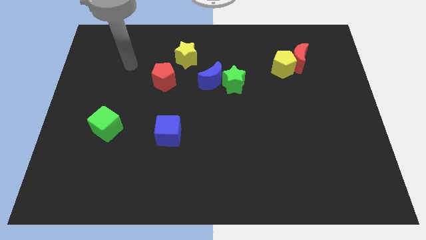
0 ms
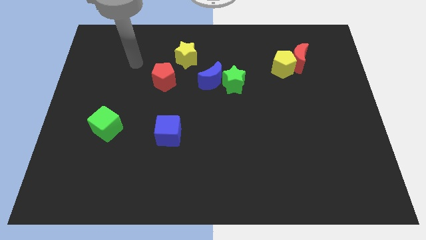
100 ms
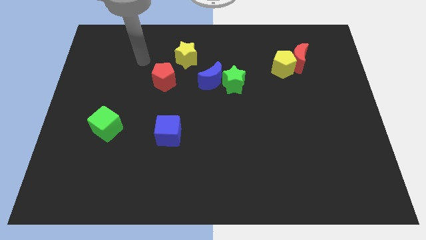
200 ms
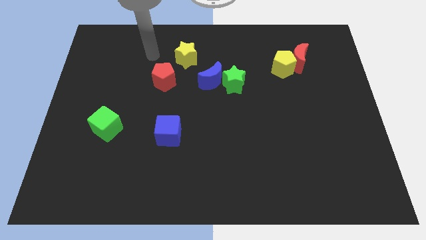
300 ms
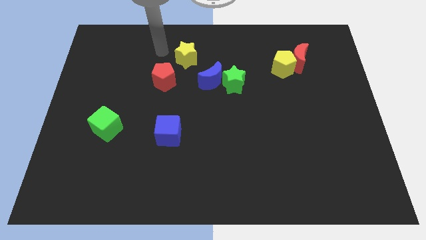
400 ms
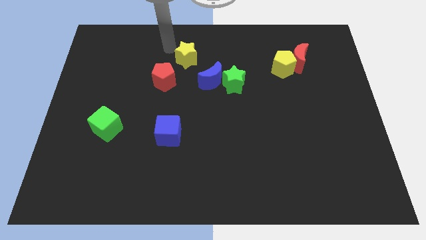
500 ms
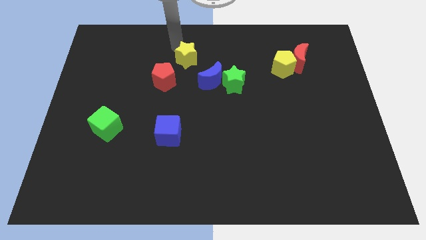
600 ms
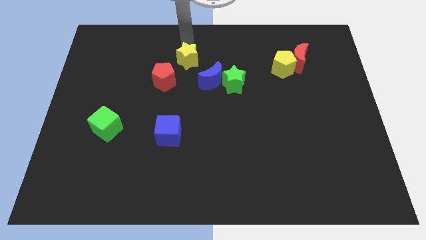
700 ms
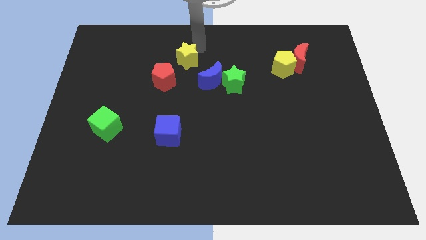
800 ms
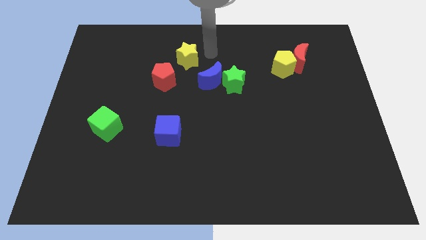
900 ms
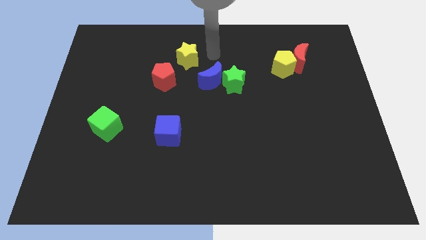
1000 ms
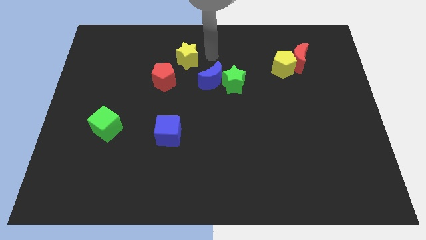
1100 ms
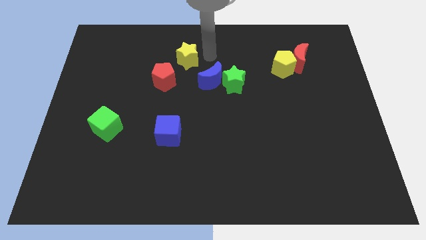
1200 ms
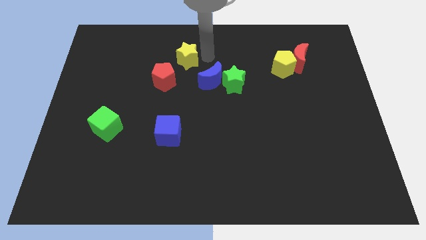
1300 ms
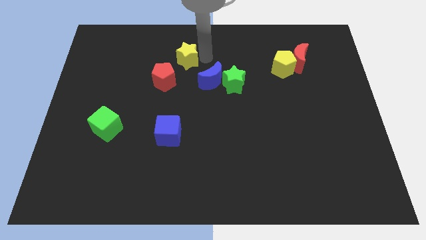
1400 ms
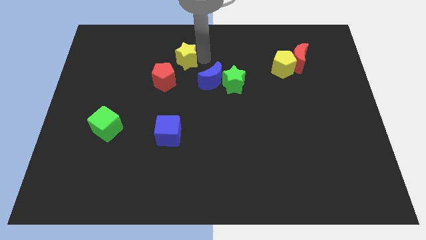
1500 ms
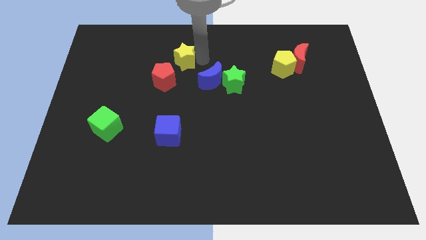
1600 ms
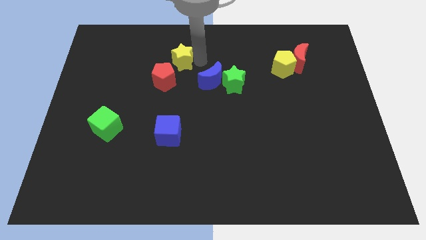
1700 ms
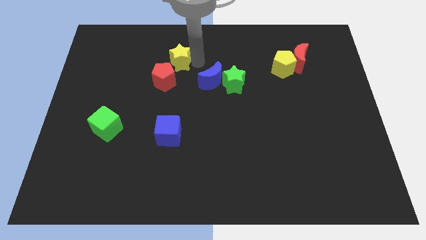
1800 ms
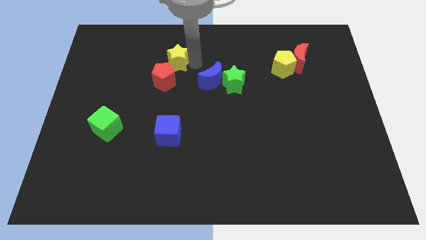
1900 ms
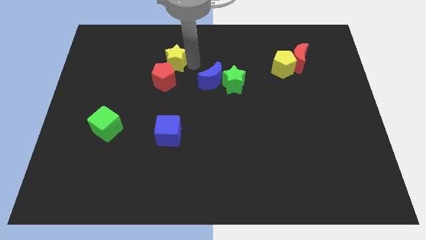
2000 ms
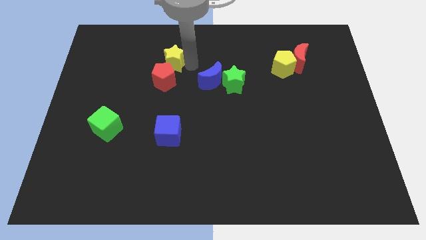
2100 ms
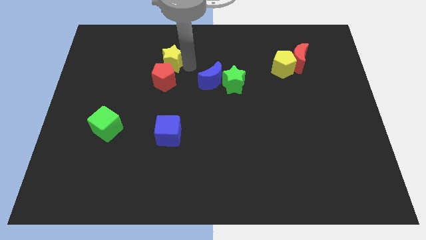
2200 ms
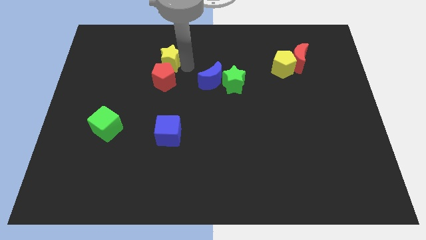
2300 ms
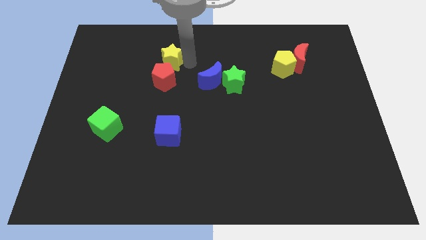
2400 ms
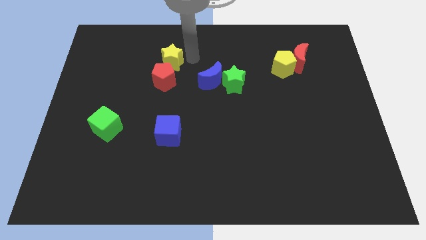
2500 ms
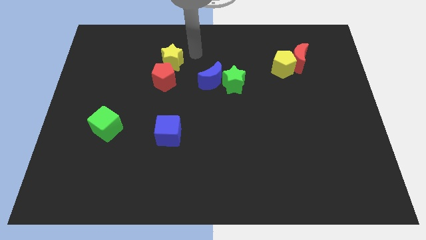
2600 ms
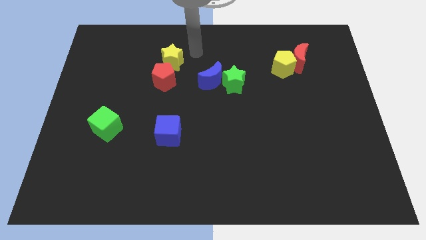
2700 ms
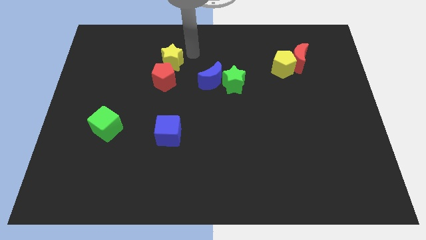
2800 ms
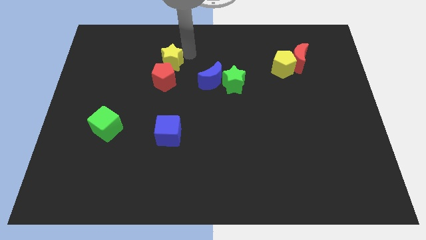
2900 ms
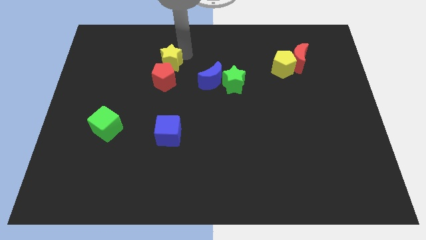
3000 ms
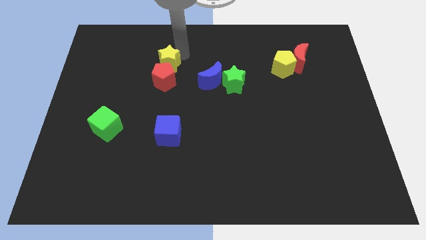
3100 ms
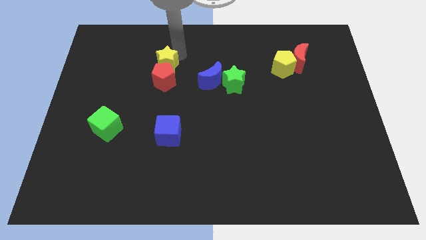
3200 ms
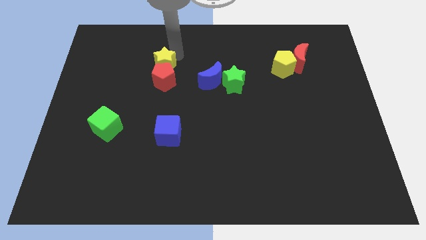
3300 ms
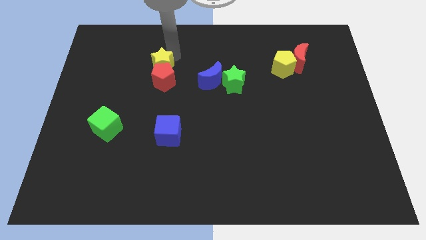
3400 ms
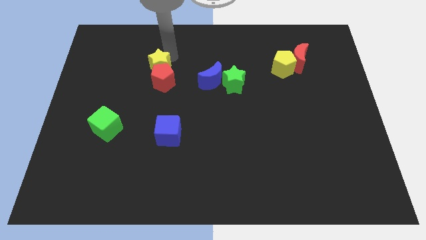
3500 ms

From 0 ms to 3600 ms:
slightly move the yellow star down and left diagonally

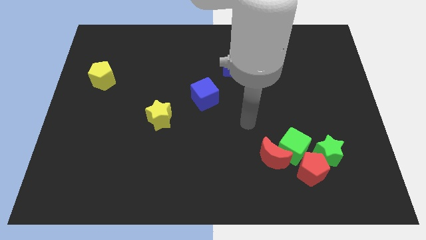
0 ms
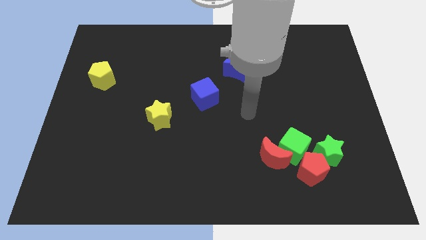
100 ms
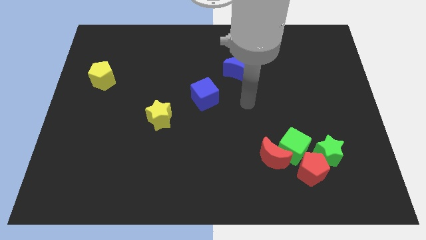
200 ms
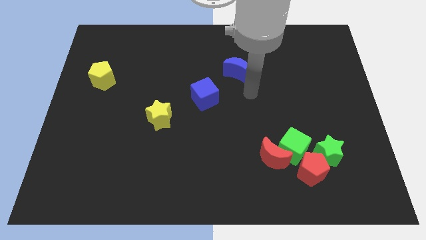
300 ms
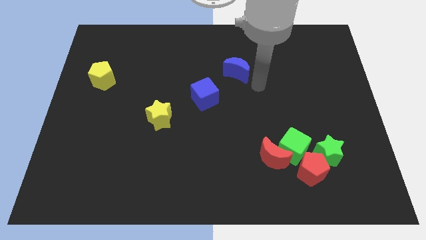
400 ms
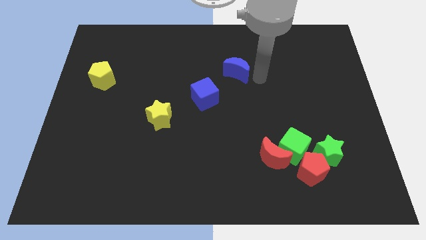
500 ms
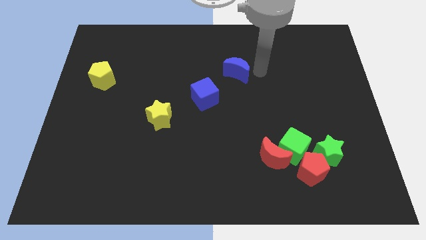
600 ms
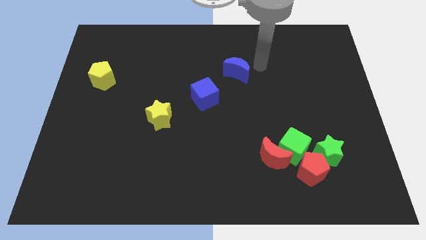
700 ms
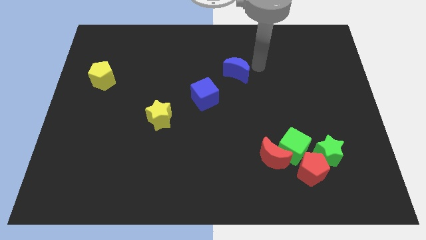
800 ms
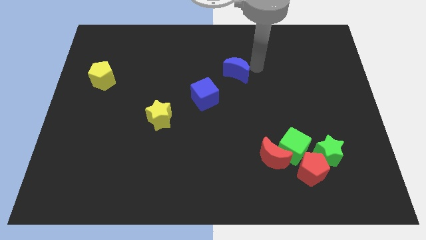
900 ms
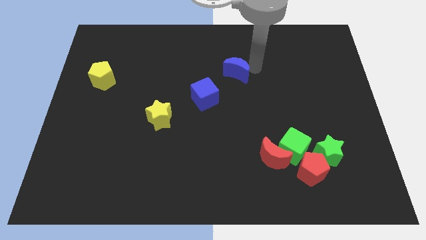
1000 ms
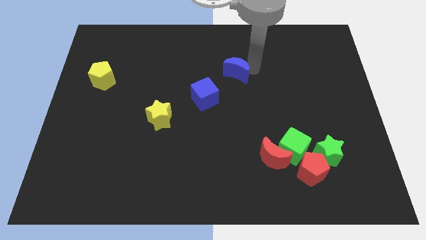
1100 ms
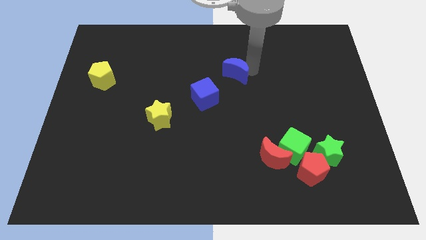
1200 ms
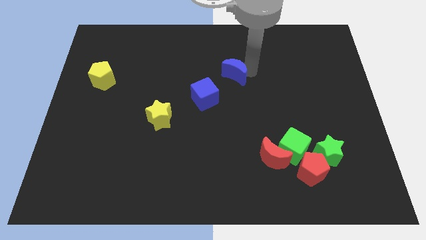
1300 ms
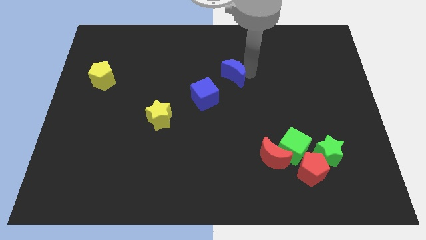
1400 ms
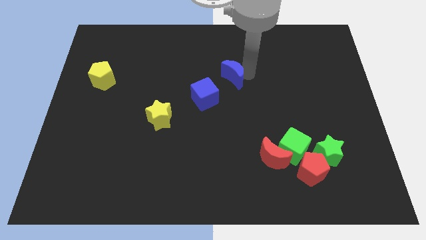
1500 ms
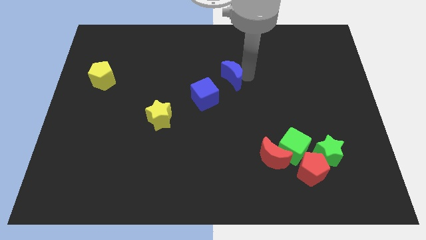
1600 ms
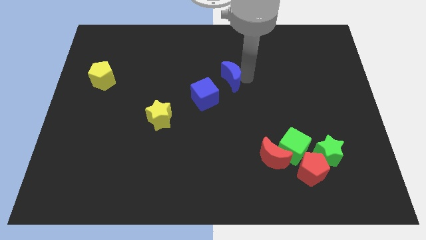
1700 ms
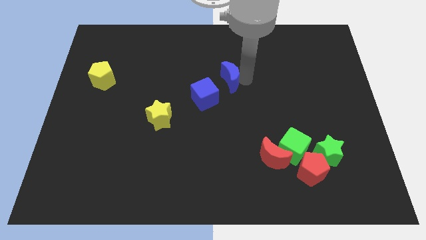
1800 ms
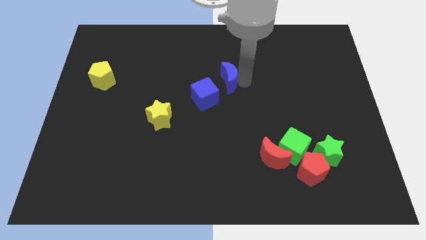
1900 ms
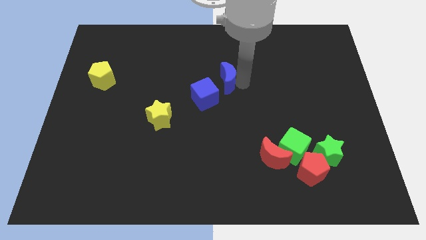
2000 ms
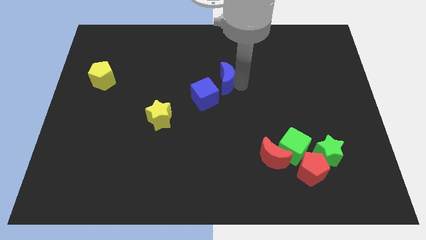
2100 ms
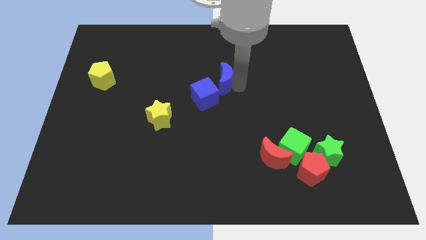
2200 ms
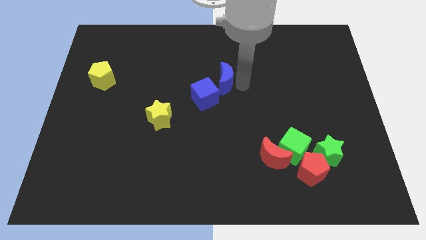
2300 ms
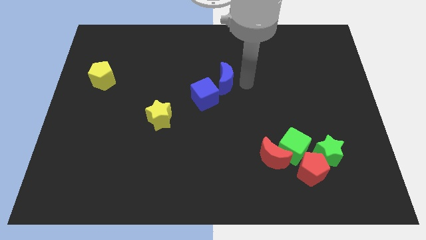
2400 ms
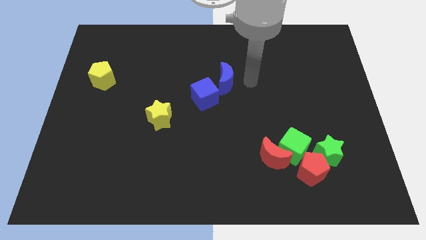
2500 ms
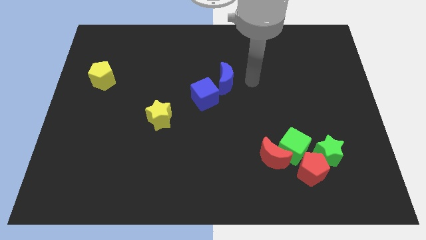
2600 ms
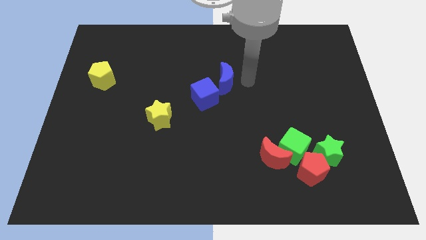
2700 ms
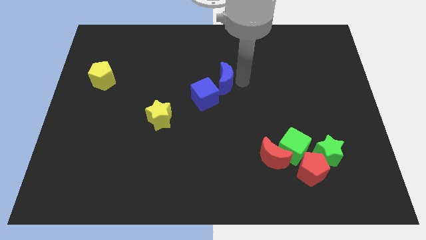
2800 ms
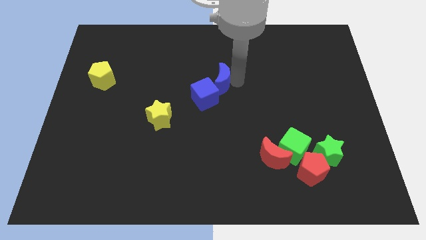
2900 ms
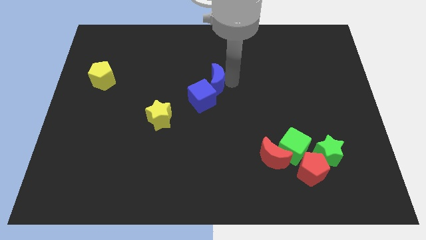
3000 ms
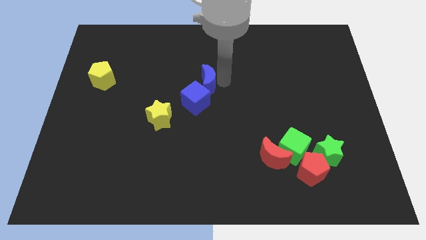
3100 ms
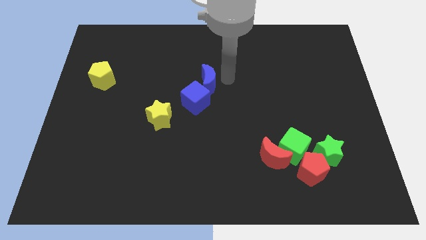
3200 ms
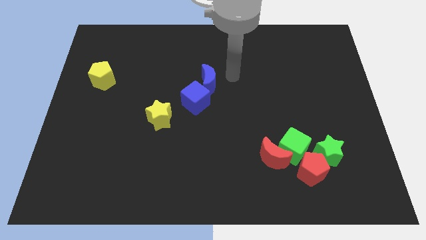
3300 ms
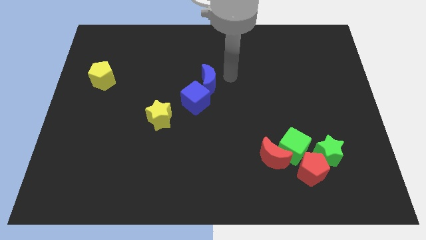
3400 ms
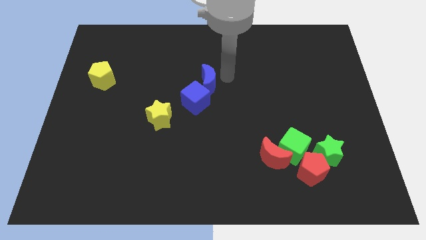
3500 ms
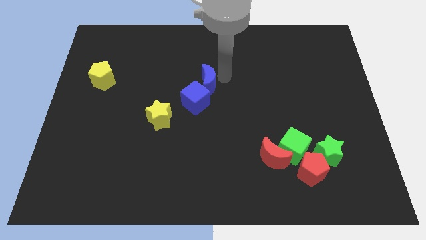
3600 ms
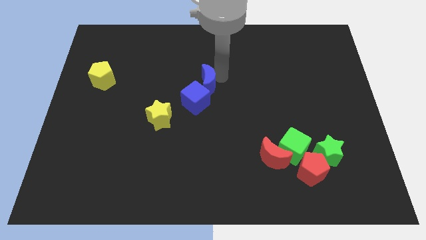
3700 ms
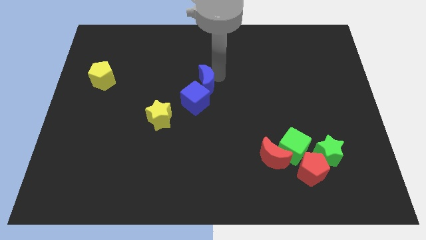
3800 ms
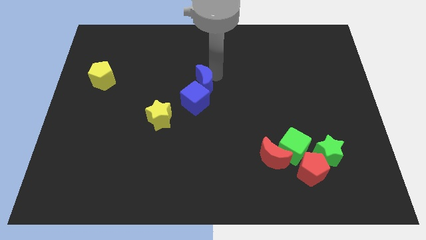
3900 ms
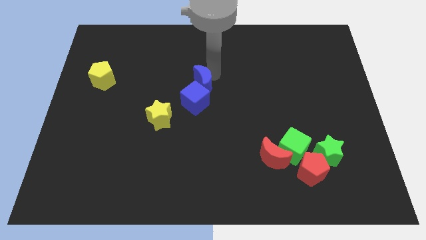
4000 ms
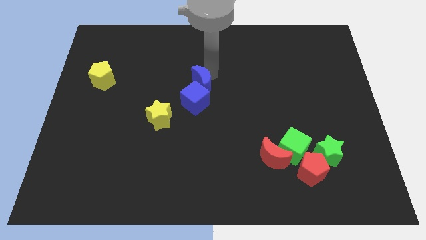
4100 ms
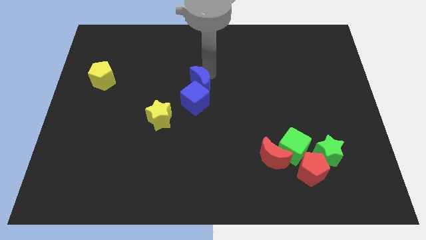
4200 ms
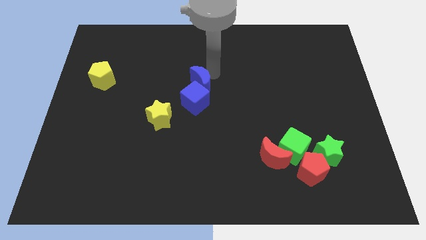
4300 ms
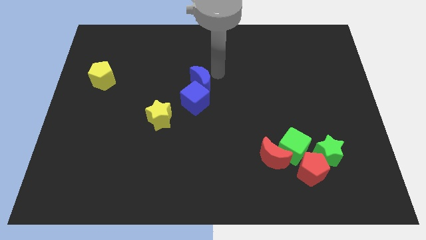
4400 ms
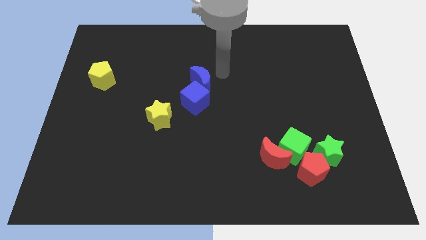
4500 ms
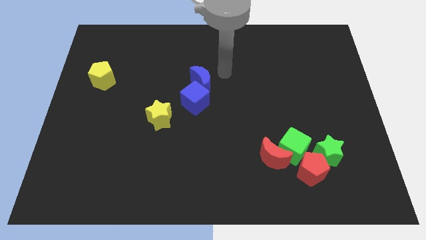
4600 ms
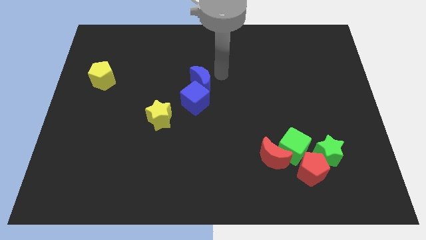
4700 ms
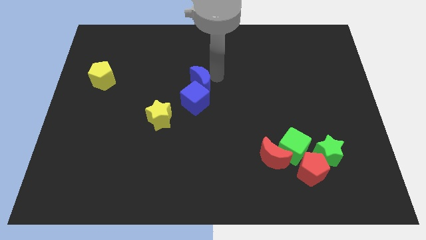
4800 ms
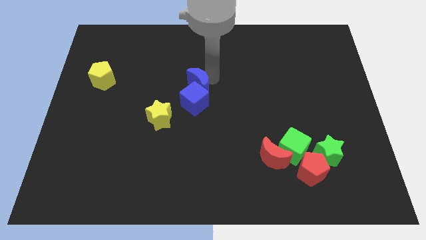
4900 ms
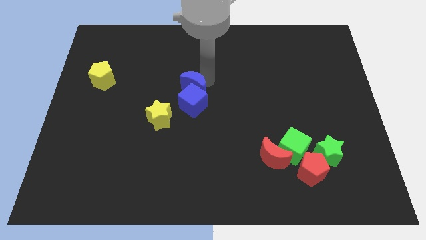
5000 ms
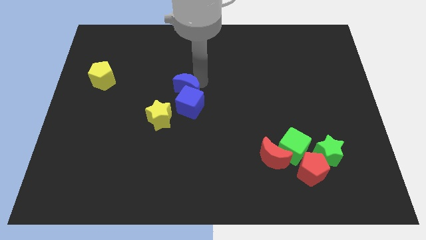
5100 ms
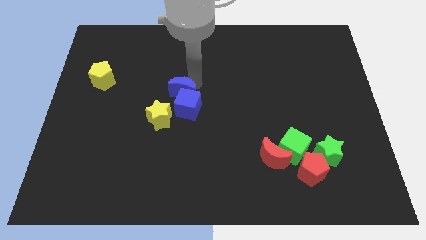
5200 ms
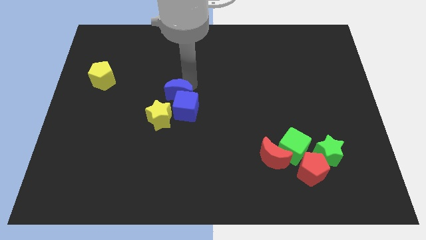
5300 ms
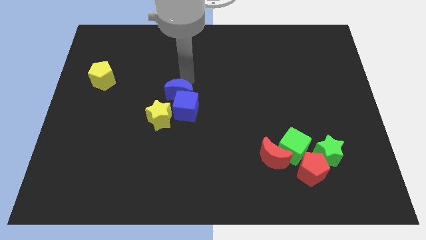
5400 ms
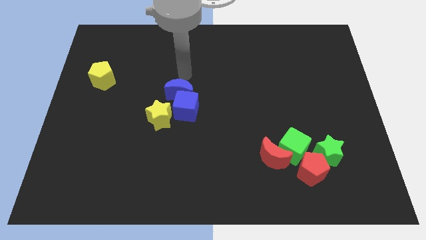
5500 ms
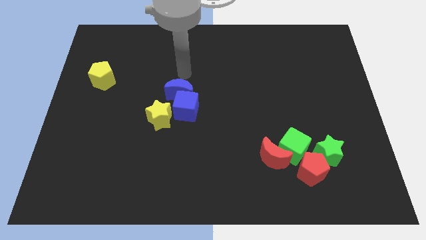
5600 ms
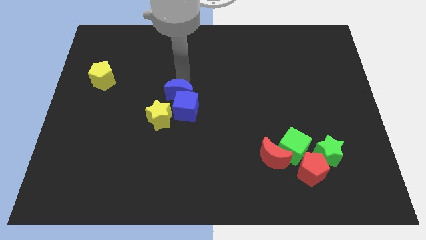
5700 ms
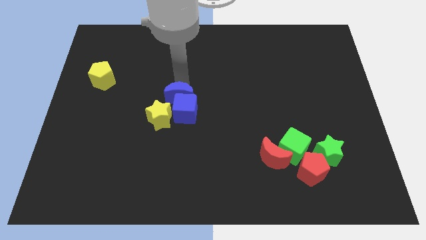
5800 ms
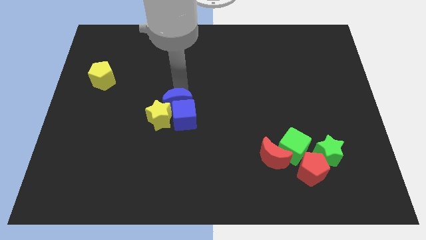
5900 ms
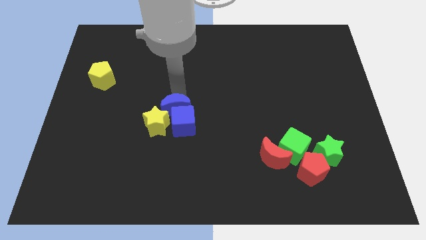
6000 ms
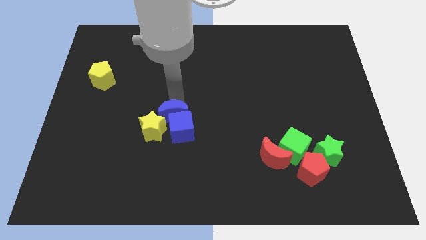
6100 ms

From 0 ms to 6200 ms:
push the blue moon diagonally downwards and left
